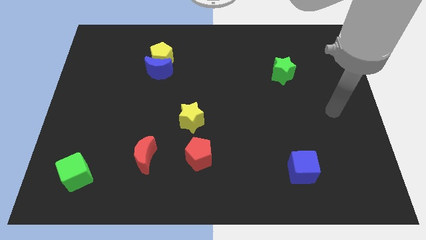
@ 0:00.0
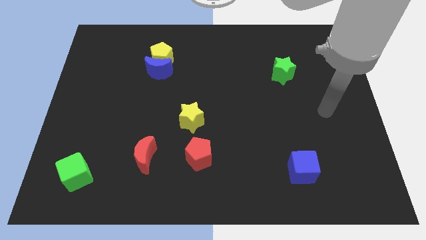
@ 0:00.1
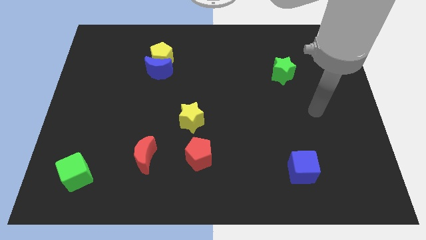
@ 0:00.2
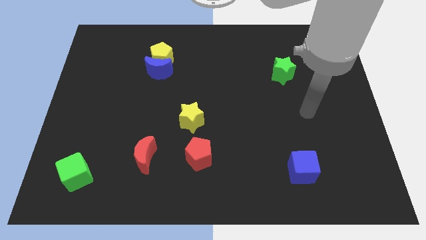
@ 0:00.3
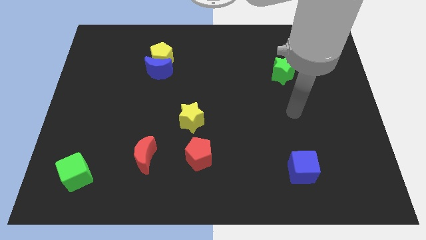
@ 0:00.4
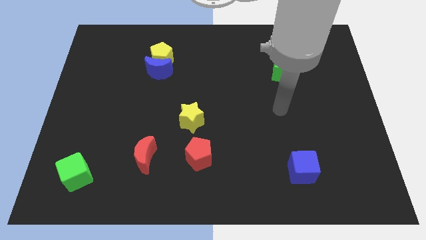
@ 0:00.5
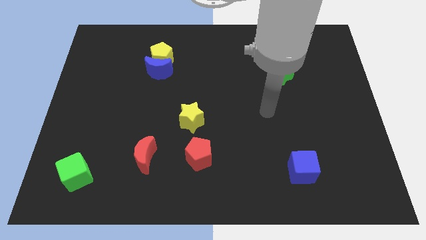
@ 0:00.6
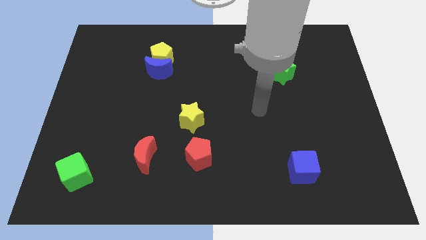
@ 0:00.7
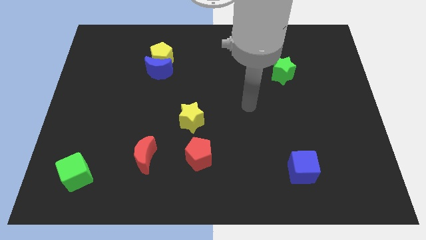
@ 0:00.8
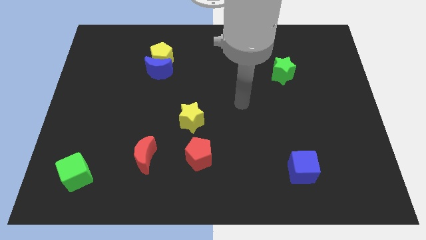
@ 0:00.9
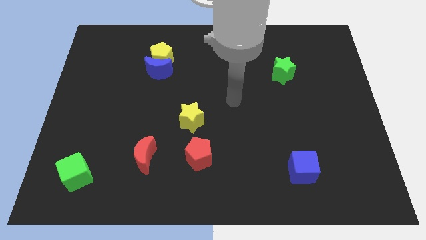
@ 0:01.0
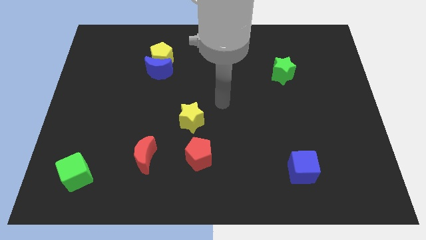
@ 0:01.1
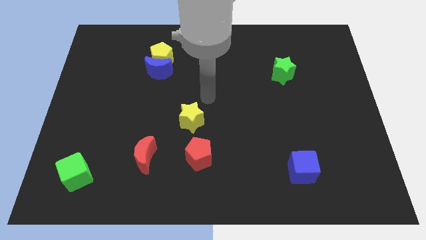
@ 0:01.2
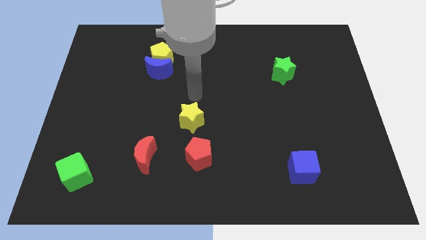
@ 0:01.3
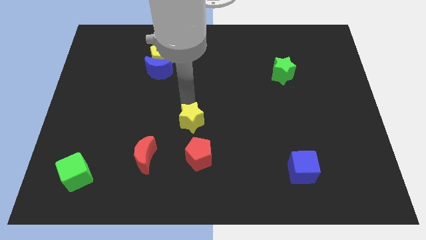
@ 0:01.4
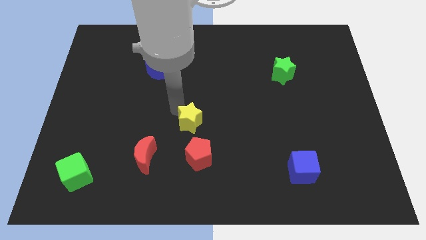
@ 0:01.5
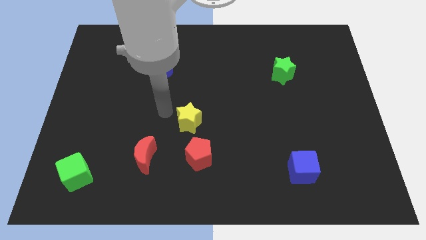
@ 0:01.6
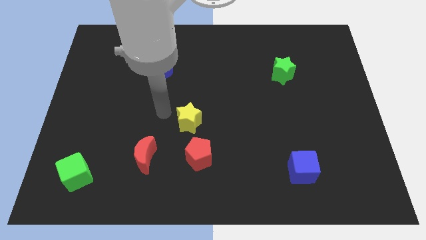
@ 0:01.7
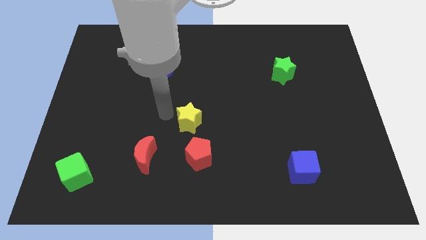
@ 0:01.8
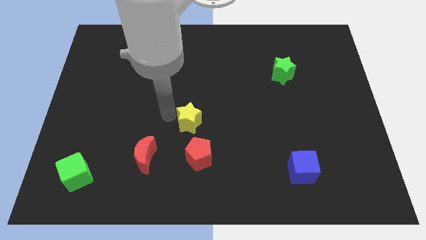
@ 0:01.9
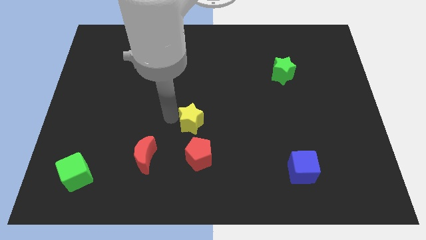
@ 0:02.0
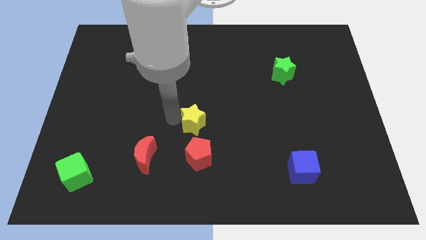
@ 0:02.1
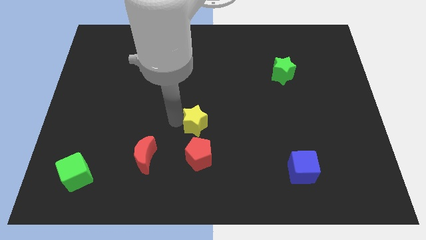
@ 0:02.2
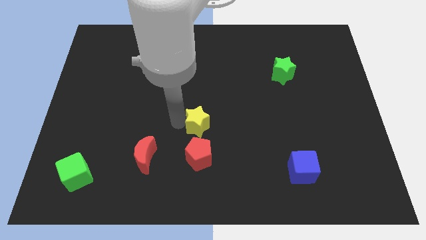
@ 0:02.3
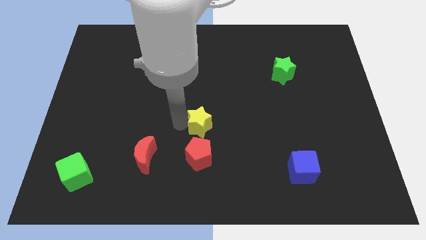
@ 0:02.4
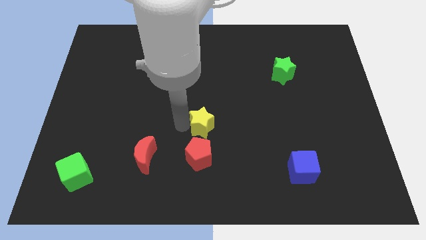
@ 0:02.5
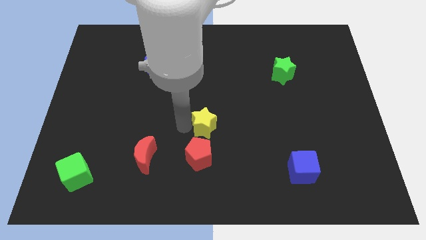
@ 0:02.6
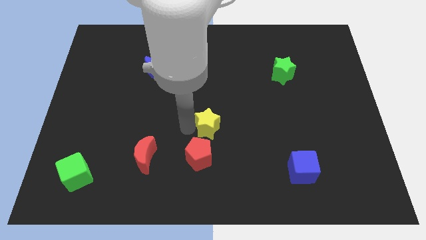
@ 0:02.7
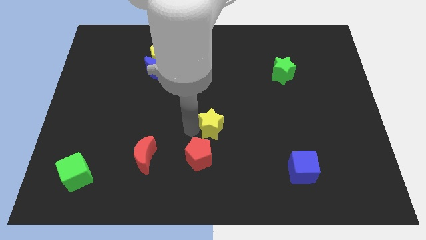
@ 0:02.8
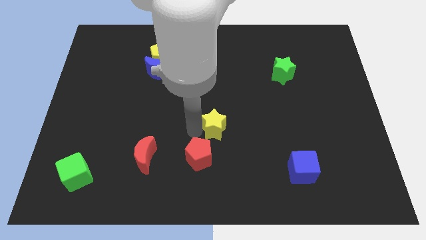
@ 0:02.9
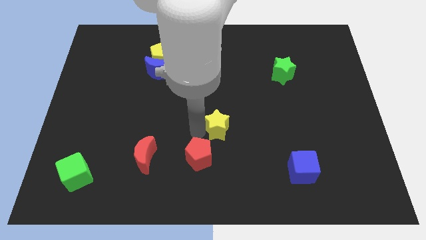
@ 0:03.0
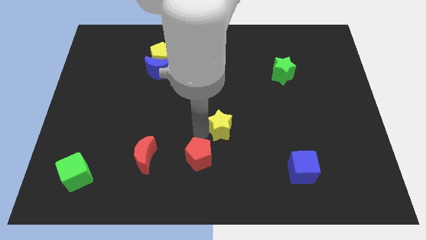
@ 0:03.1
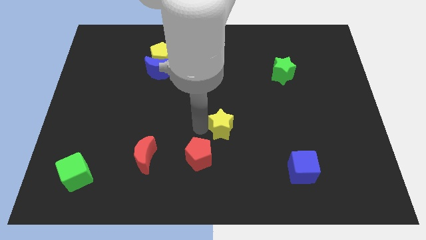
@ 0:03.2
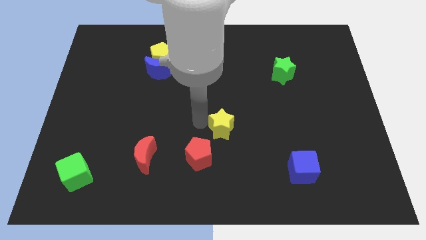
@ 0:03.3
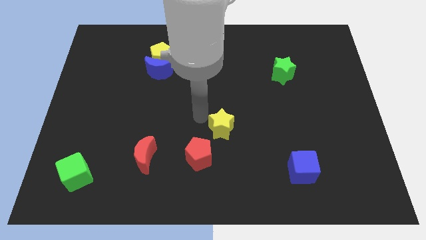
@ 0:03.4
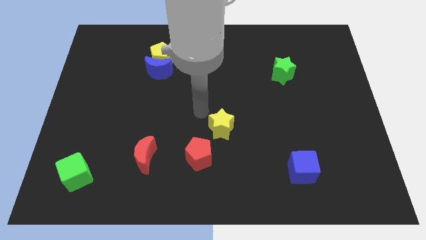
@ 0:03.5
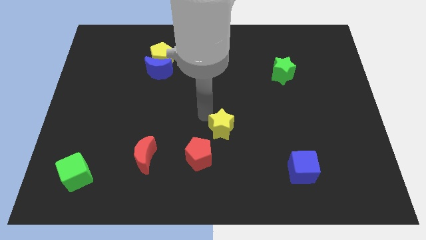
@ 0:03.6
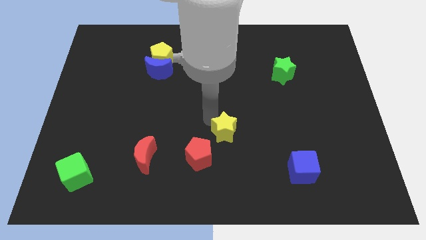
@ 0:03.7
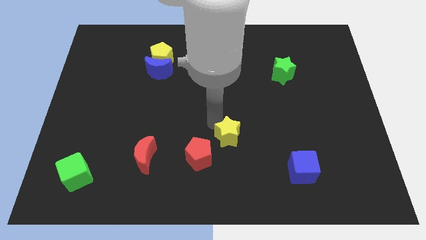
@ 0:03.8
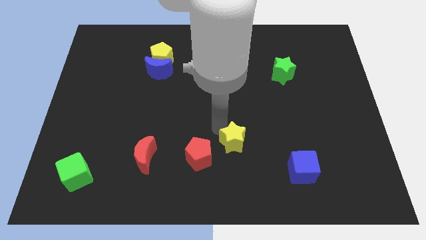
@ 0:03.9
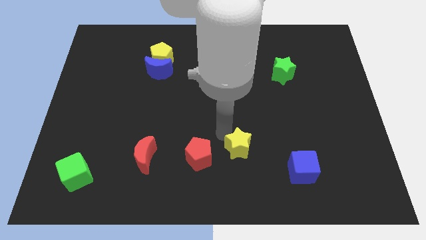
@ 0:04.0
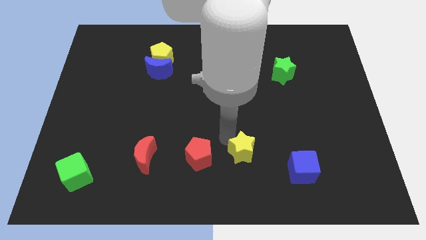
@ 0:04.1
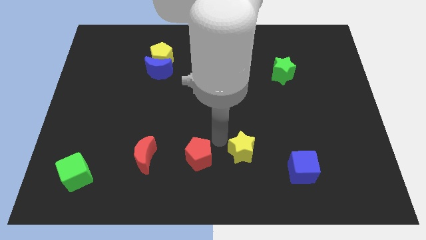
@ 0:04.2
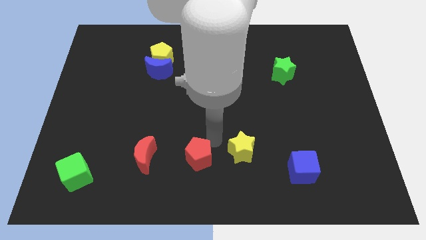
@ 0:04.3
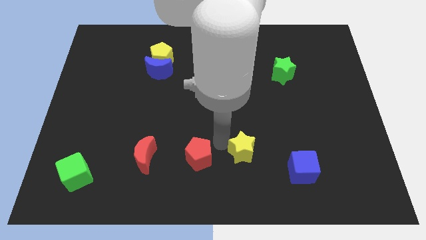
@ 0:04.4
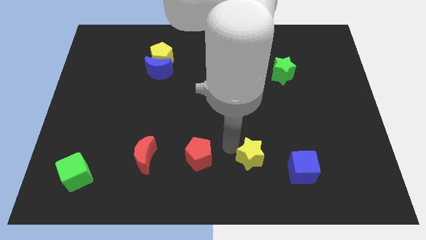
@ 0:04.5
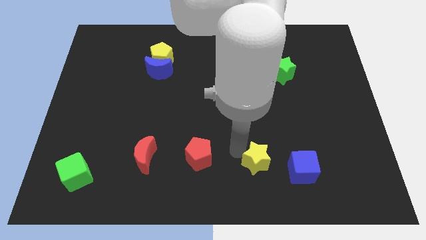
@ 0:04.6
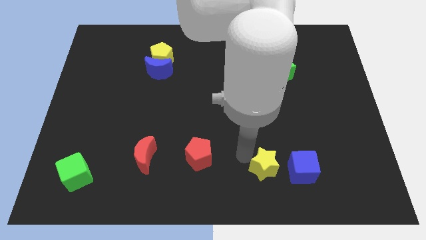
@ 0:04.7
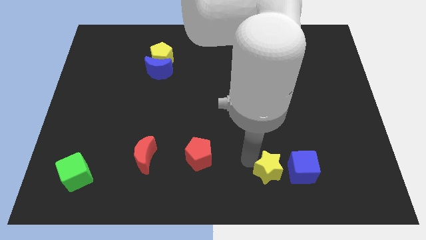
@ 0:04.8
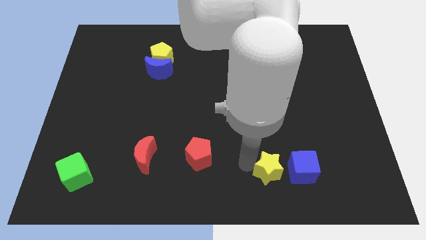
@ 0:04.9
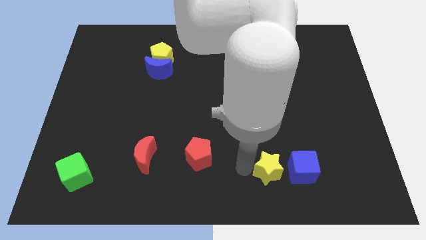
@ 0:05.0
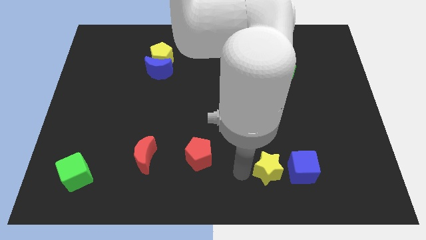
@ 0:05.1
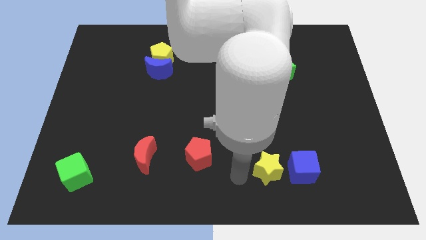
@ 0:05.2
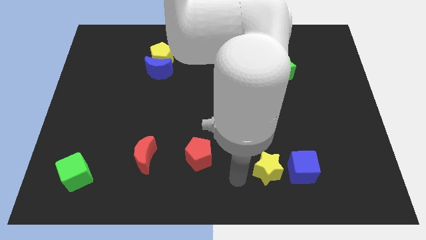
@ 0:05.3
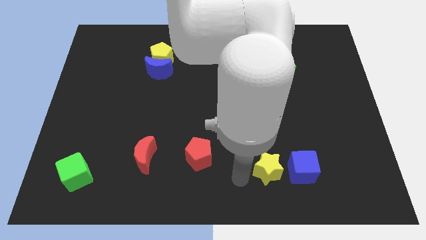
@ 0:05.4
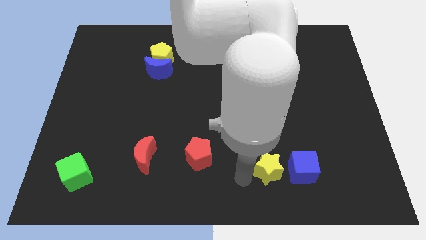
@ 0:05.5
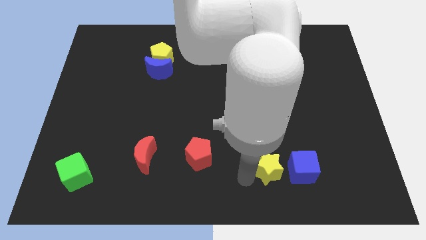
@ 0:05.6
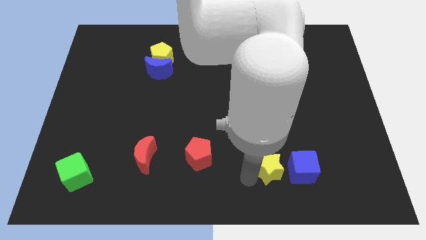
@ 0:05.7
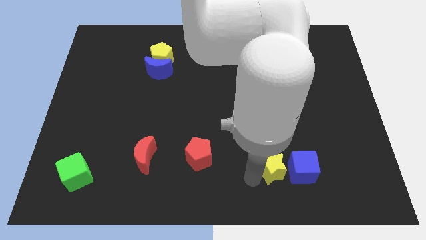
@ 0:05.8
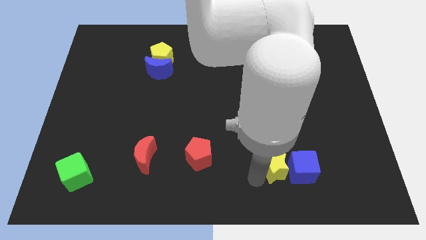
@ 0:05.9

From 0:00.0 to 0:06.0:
push the yellow star towards the blue cube

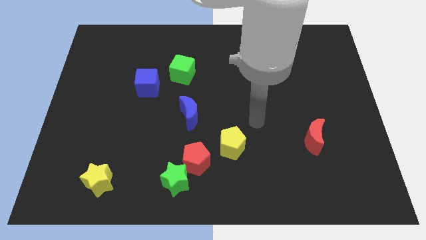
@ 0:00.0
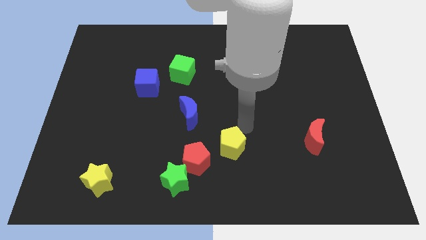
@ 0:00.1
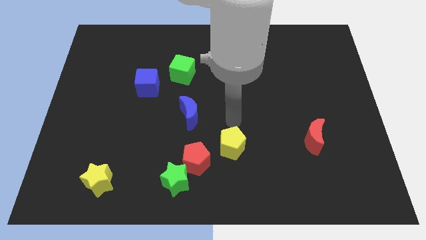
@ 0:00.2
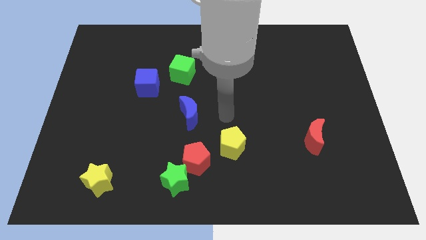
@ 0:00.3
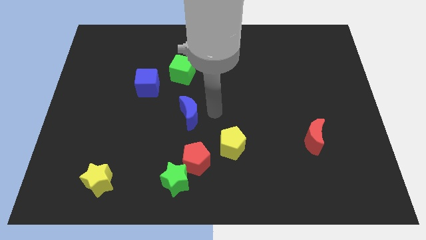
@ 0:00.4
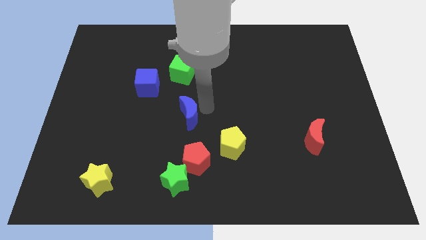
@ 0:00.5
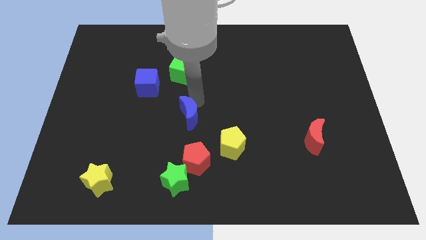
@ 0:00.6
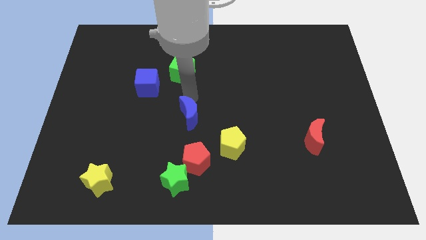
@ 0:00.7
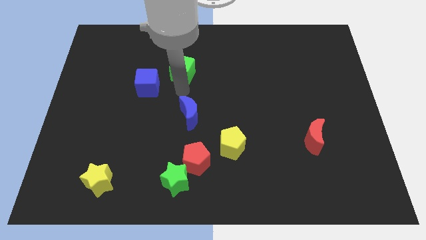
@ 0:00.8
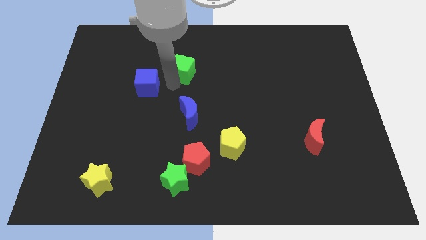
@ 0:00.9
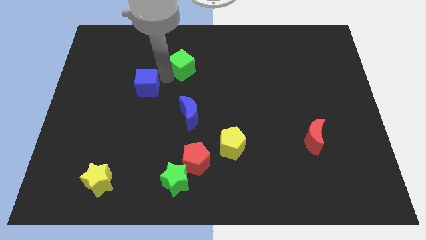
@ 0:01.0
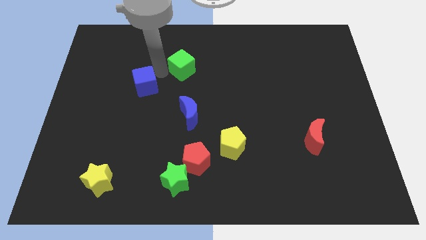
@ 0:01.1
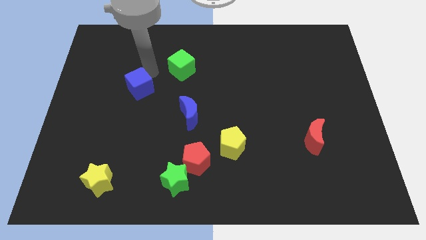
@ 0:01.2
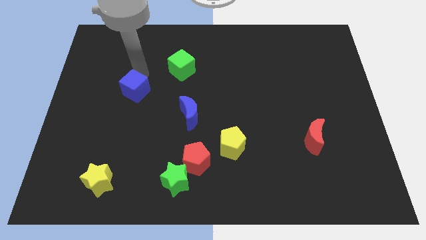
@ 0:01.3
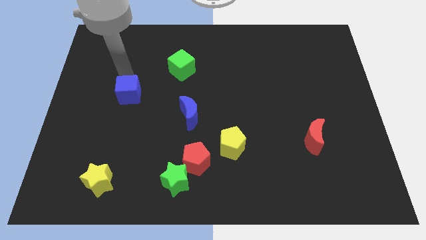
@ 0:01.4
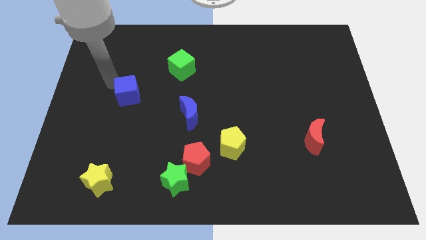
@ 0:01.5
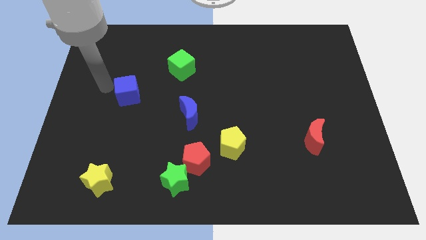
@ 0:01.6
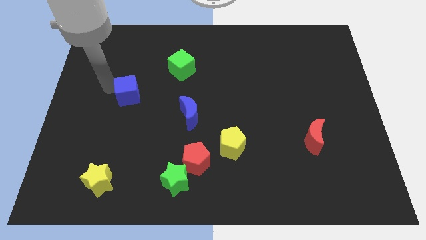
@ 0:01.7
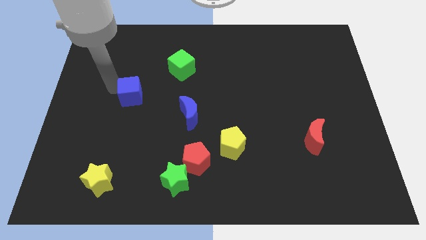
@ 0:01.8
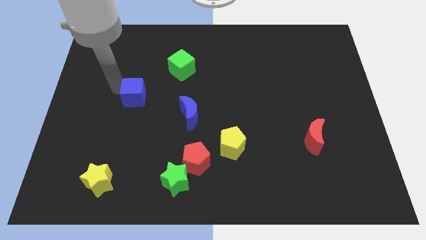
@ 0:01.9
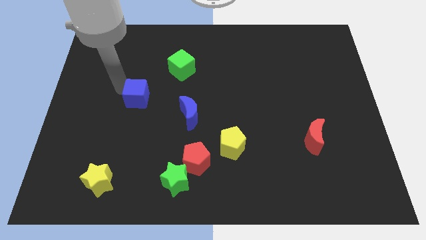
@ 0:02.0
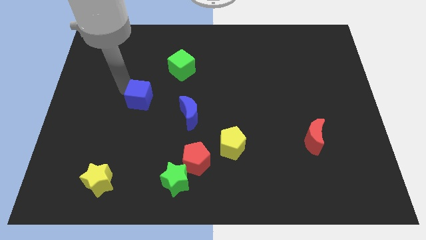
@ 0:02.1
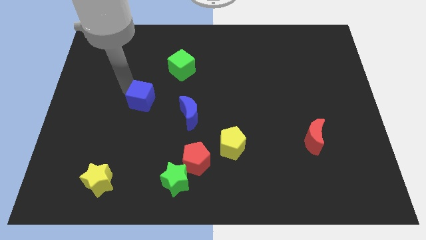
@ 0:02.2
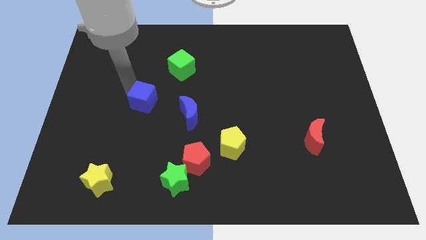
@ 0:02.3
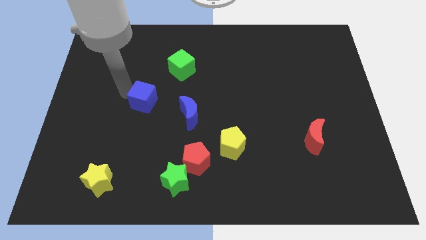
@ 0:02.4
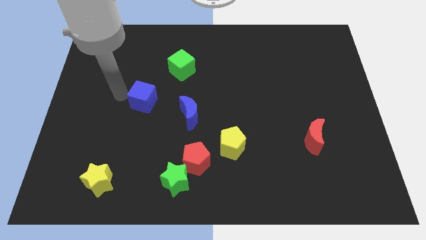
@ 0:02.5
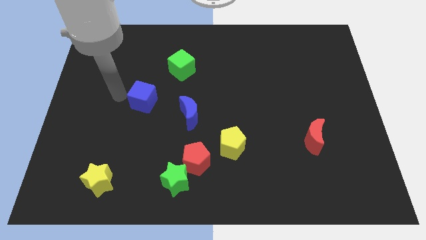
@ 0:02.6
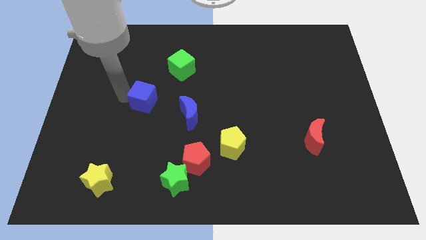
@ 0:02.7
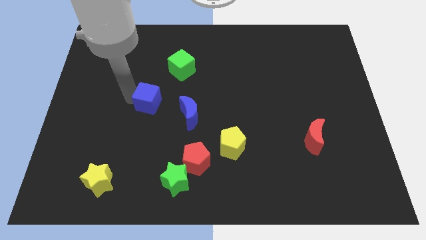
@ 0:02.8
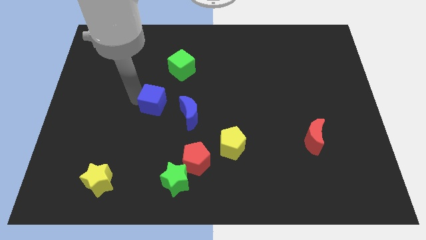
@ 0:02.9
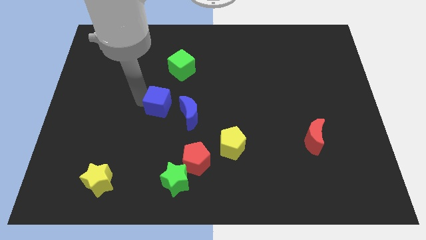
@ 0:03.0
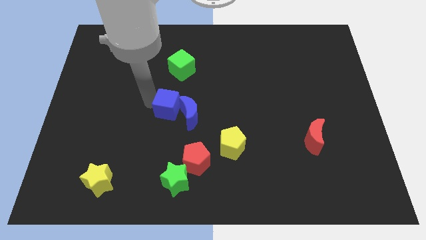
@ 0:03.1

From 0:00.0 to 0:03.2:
move the blue cube close to the blue moon
